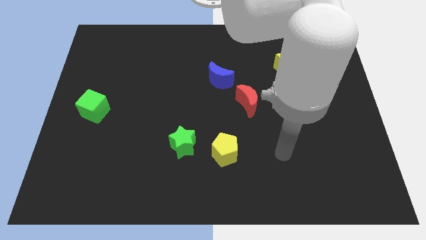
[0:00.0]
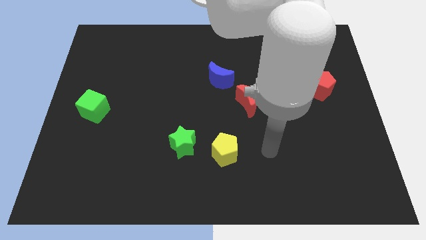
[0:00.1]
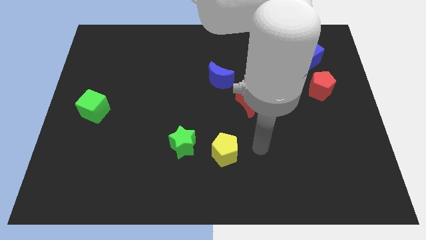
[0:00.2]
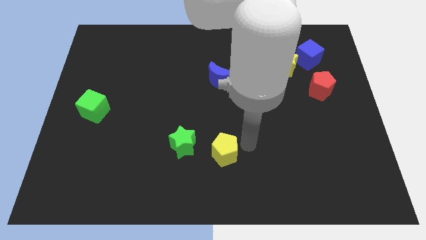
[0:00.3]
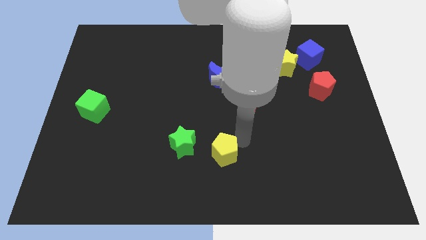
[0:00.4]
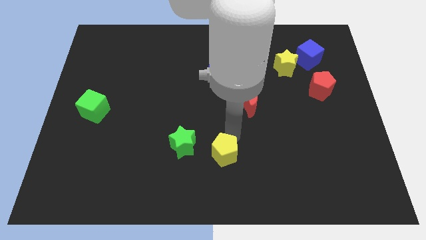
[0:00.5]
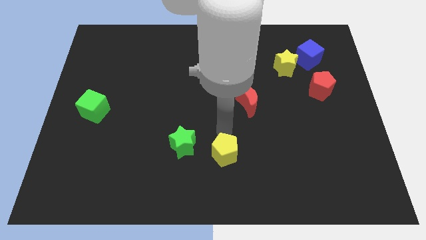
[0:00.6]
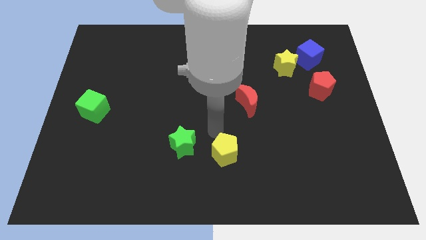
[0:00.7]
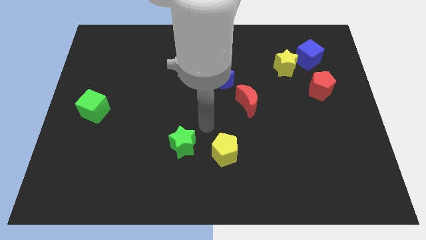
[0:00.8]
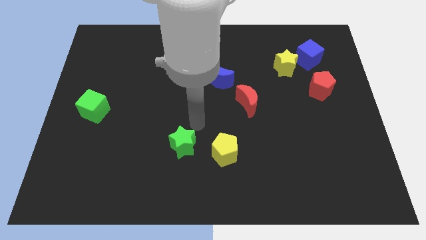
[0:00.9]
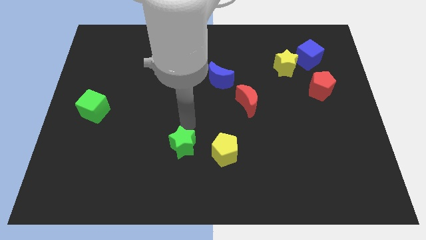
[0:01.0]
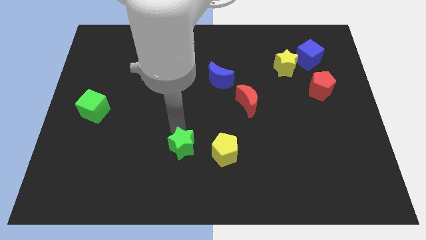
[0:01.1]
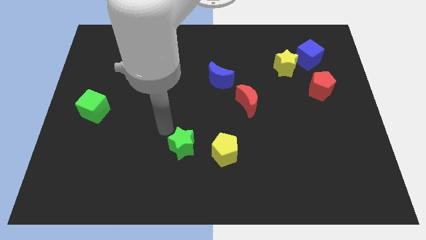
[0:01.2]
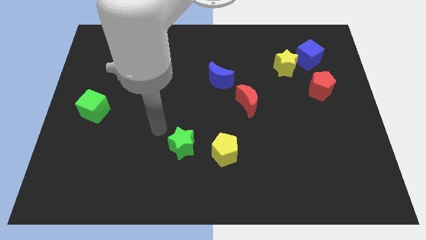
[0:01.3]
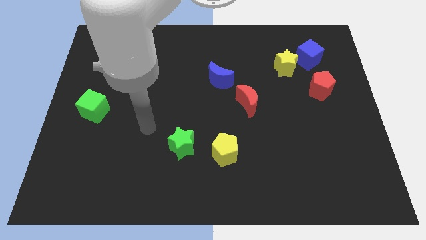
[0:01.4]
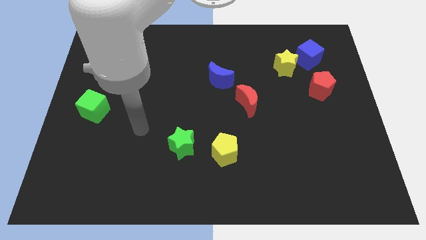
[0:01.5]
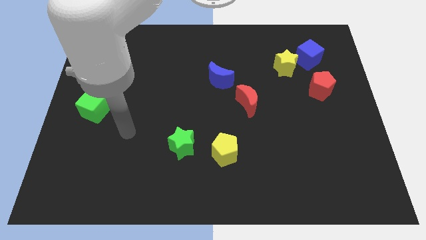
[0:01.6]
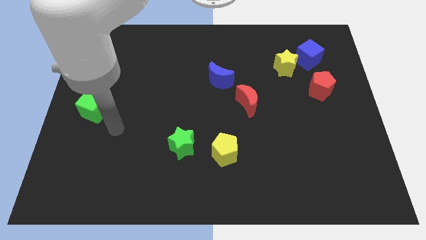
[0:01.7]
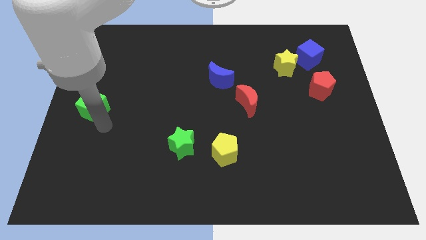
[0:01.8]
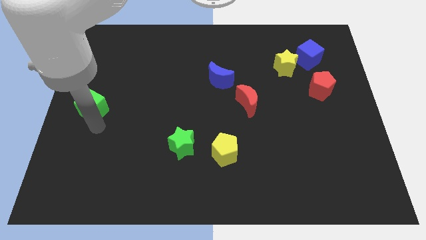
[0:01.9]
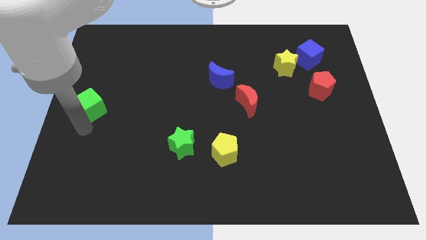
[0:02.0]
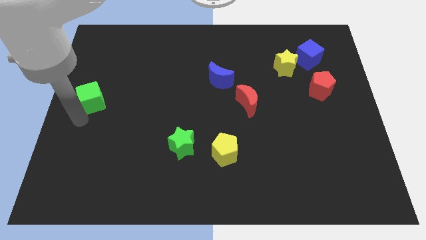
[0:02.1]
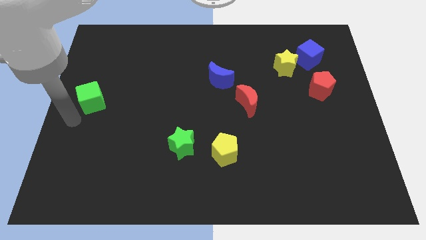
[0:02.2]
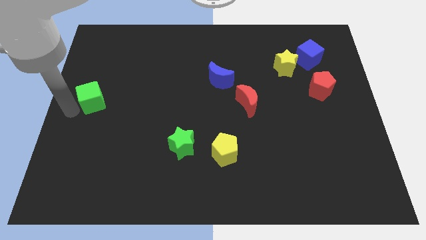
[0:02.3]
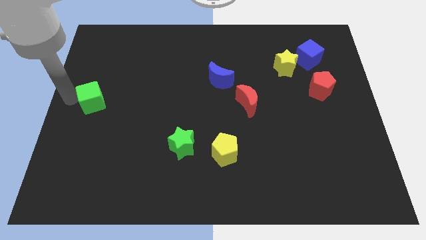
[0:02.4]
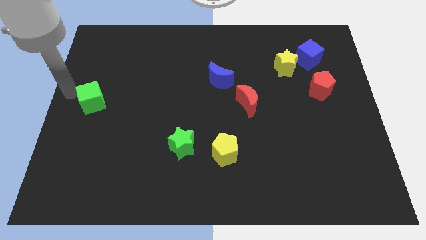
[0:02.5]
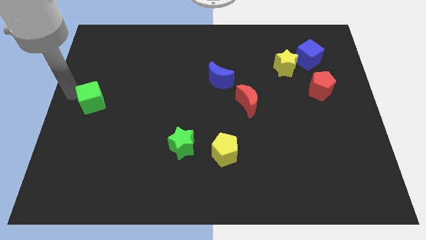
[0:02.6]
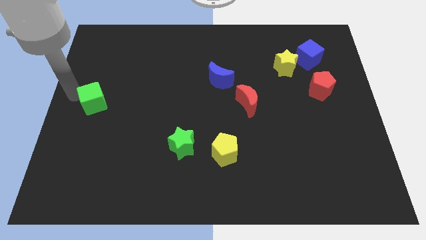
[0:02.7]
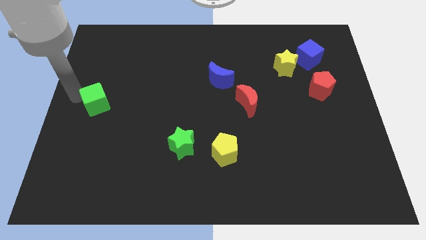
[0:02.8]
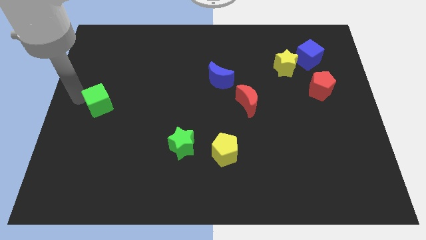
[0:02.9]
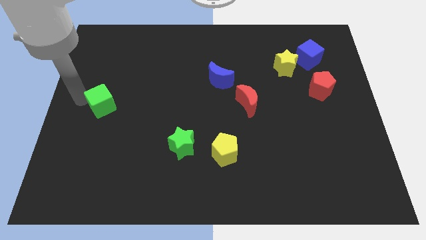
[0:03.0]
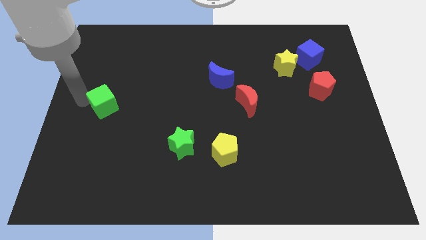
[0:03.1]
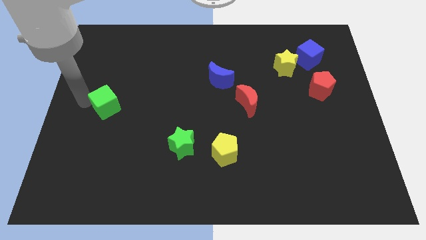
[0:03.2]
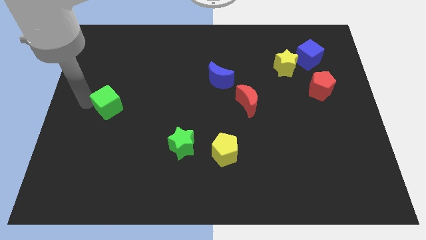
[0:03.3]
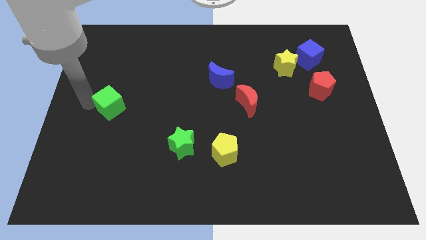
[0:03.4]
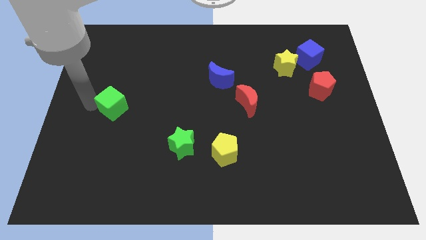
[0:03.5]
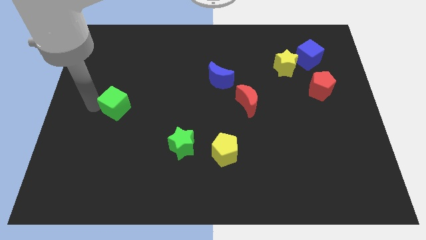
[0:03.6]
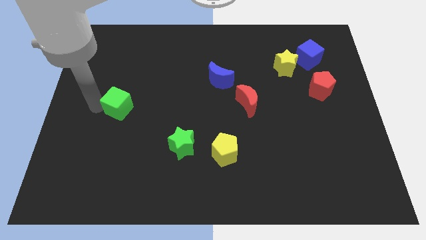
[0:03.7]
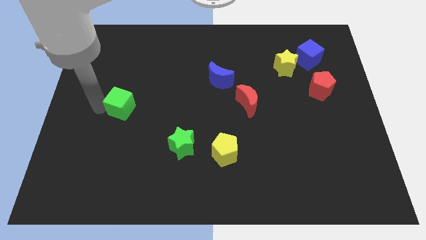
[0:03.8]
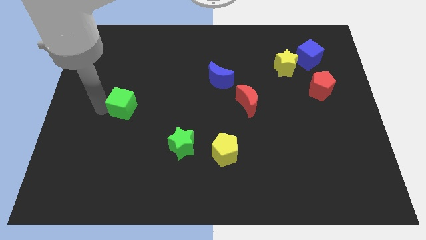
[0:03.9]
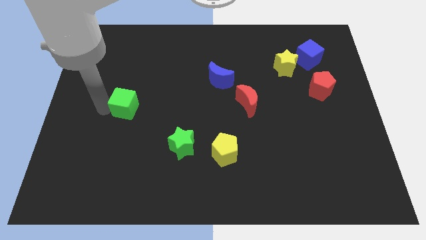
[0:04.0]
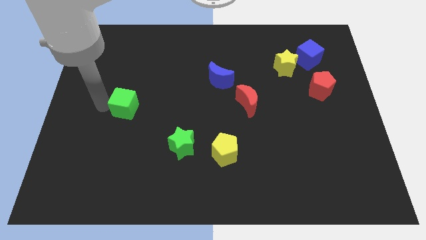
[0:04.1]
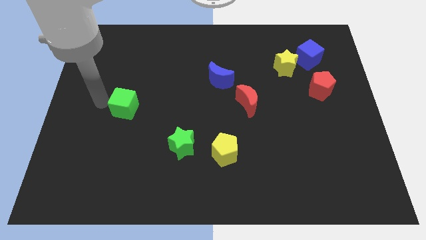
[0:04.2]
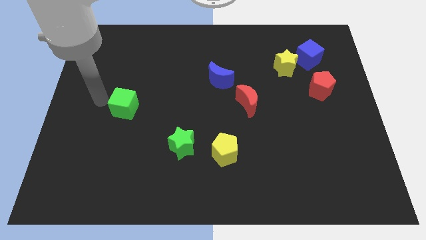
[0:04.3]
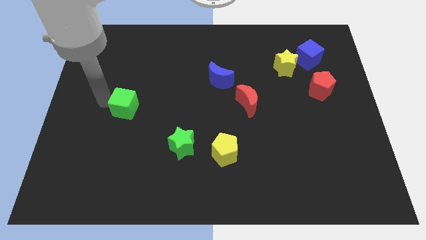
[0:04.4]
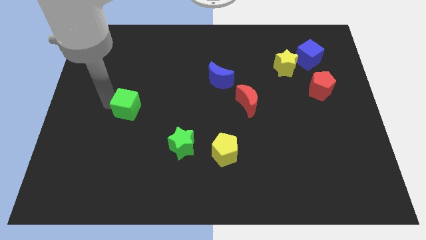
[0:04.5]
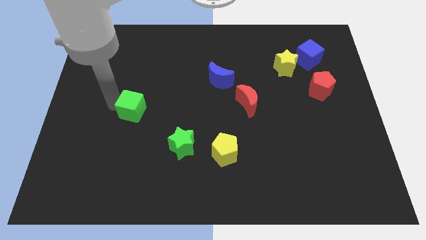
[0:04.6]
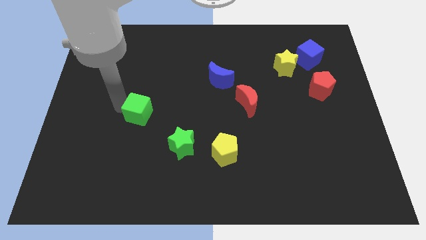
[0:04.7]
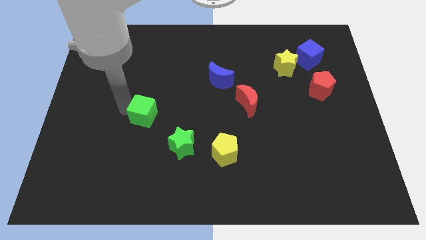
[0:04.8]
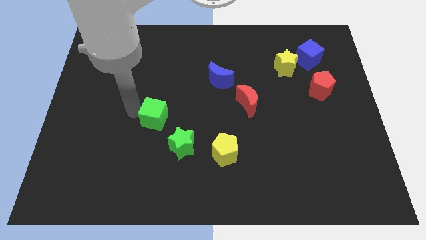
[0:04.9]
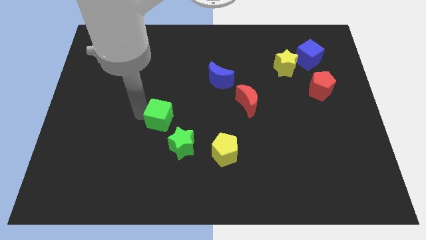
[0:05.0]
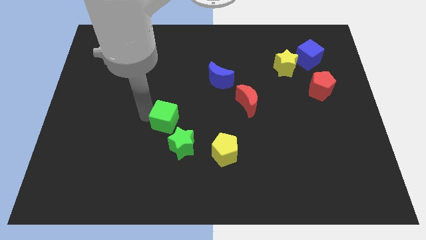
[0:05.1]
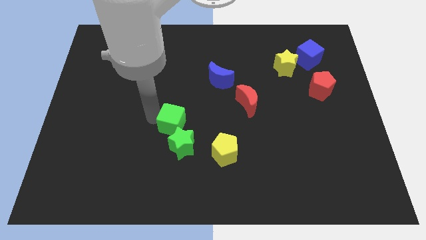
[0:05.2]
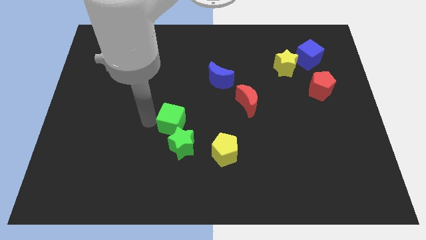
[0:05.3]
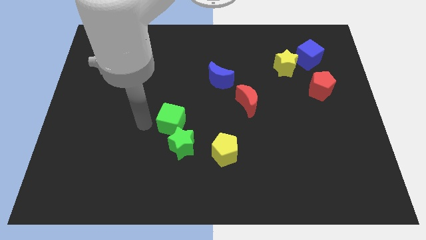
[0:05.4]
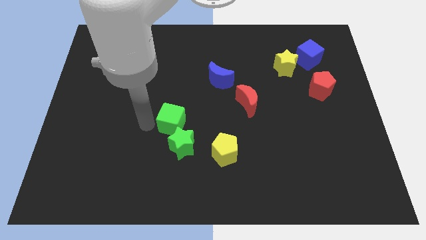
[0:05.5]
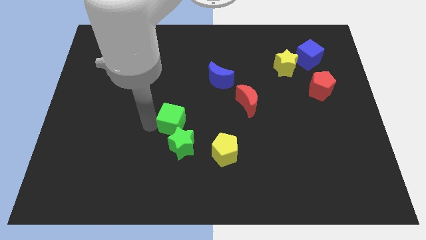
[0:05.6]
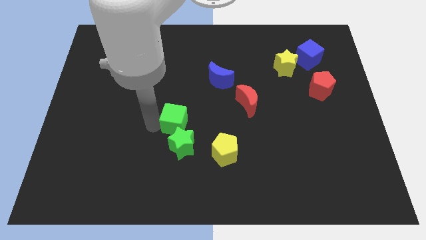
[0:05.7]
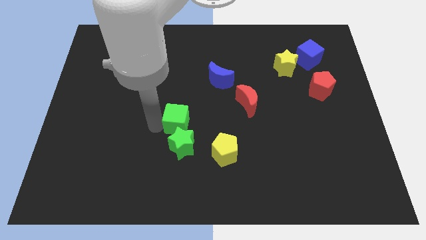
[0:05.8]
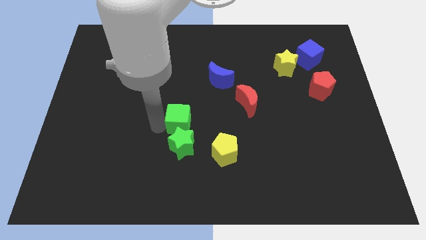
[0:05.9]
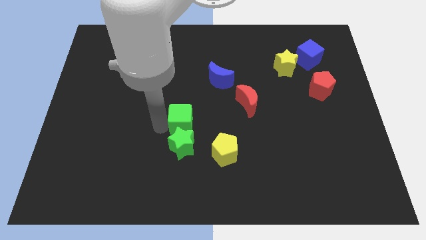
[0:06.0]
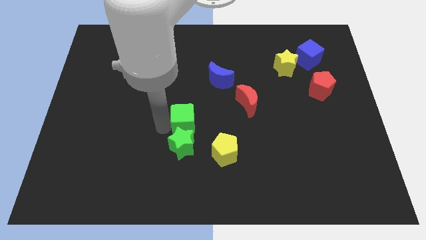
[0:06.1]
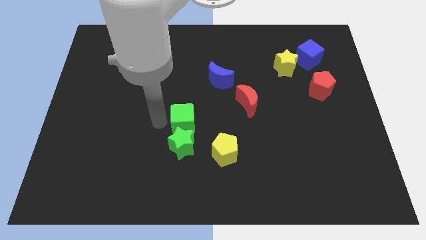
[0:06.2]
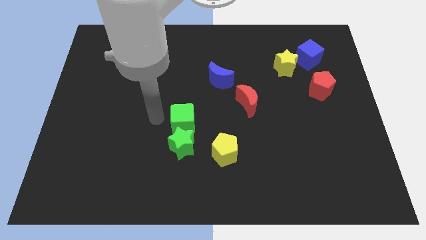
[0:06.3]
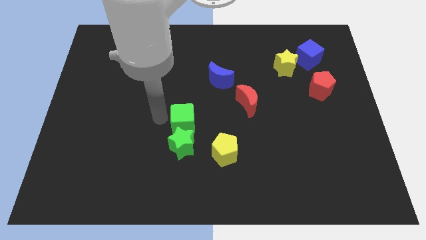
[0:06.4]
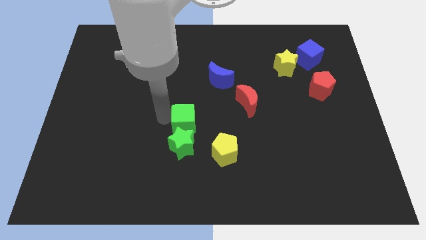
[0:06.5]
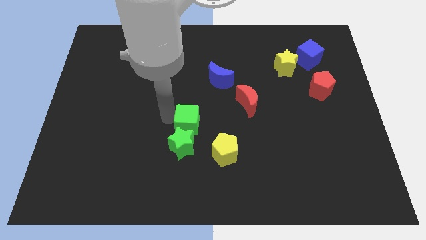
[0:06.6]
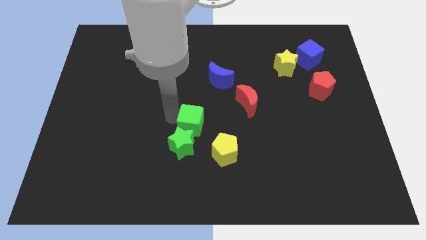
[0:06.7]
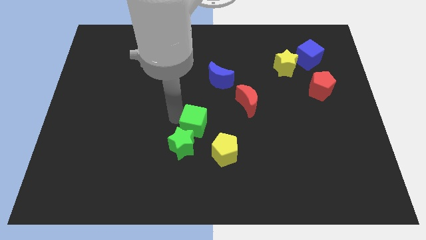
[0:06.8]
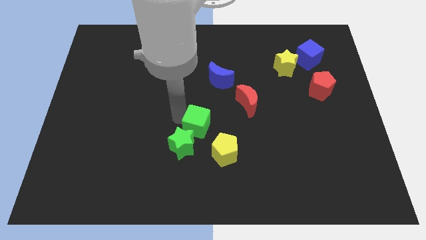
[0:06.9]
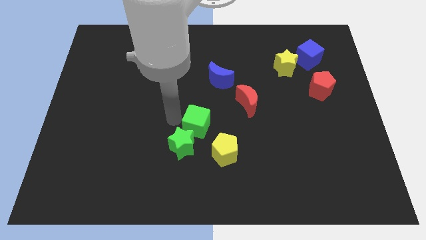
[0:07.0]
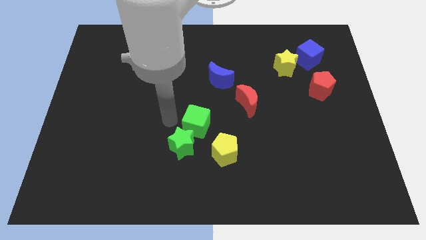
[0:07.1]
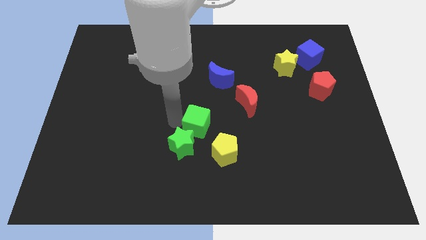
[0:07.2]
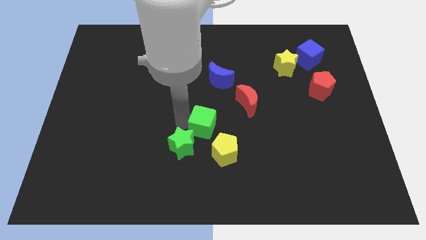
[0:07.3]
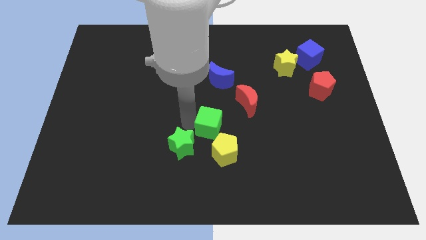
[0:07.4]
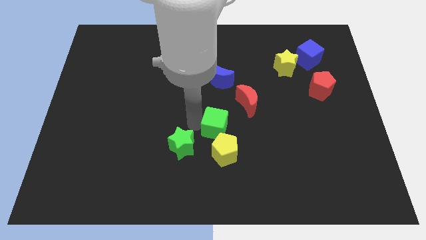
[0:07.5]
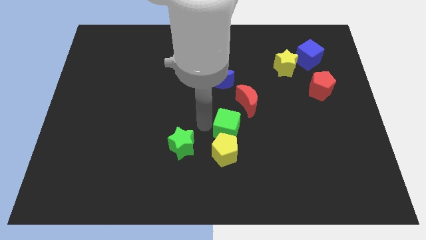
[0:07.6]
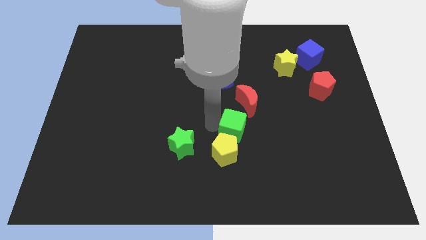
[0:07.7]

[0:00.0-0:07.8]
put the green cube to the bottom of the red moon

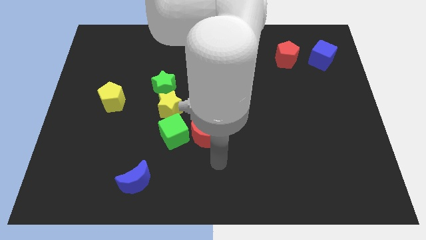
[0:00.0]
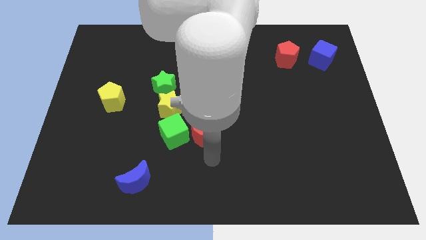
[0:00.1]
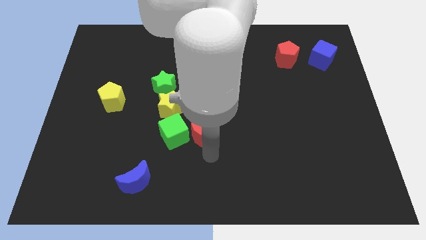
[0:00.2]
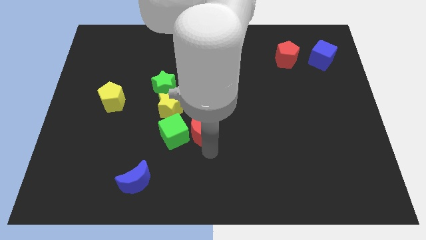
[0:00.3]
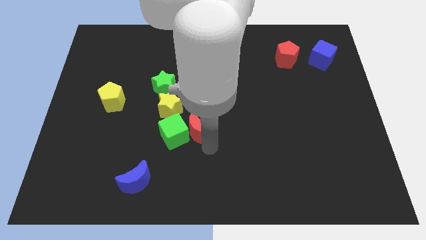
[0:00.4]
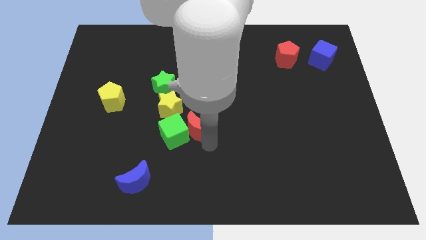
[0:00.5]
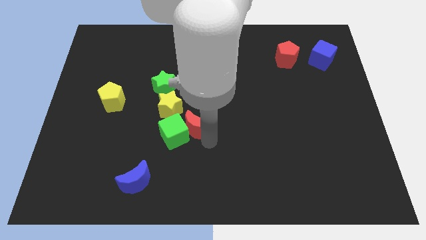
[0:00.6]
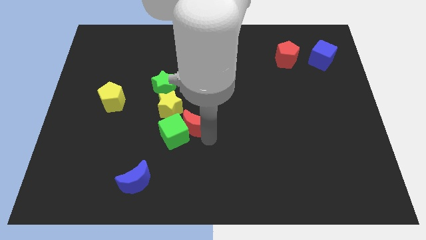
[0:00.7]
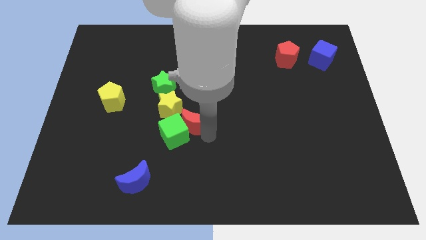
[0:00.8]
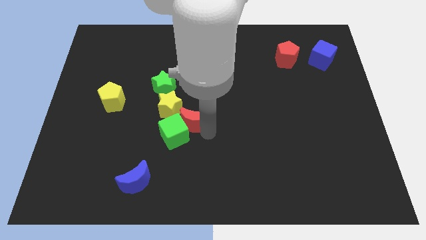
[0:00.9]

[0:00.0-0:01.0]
push the red moon to the top side of the green cube
